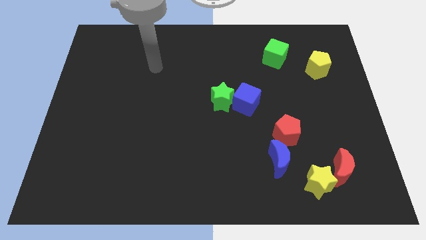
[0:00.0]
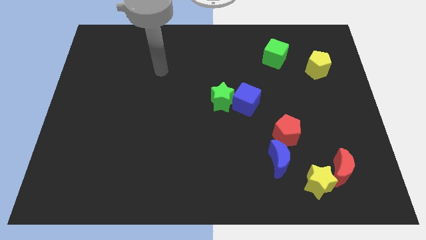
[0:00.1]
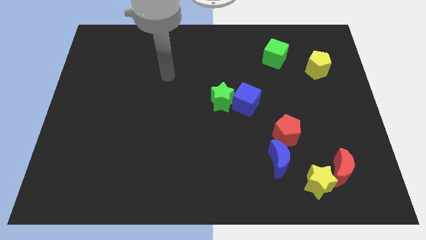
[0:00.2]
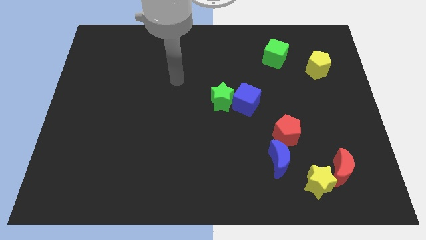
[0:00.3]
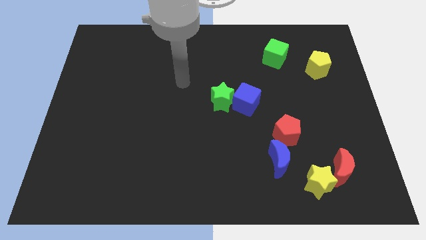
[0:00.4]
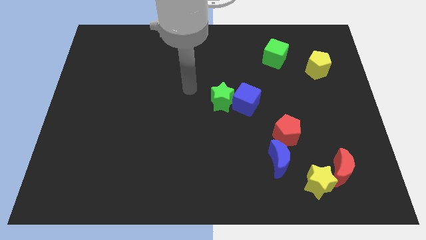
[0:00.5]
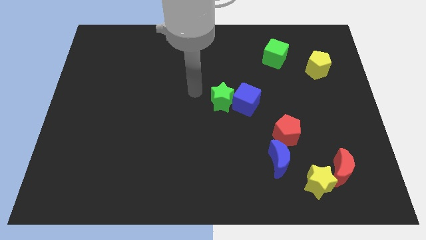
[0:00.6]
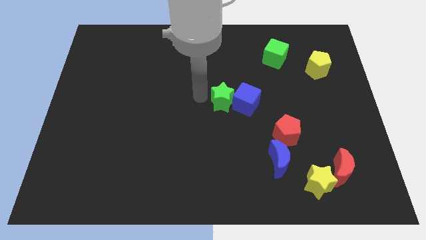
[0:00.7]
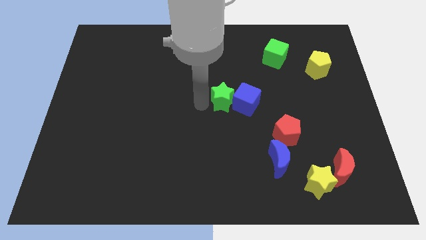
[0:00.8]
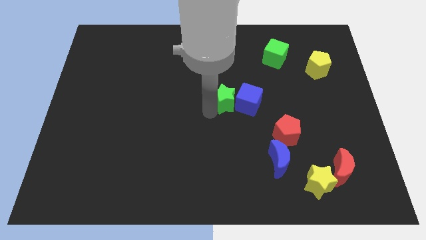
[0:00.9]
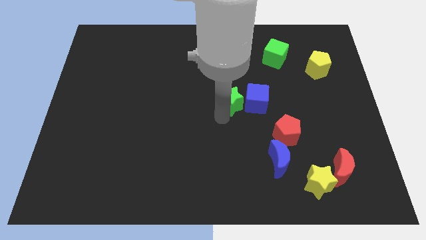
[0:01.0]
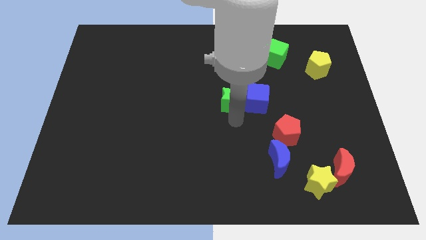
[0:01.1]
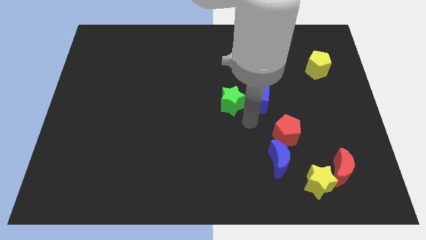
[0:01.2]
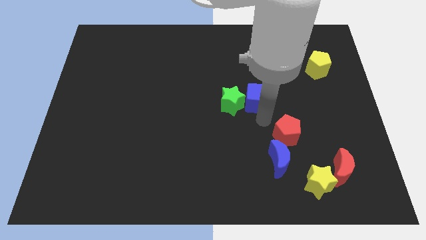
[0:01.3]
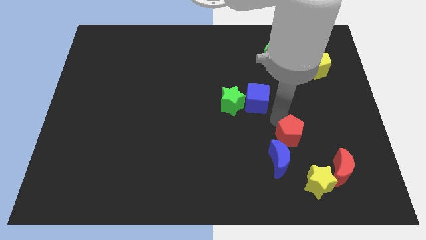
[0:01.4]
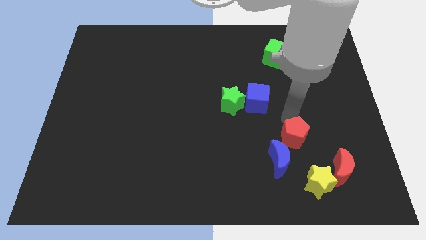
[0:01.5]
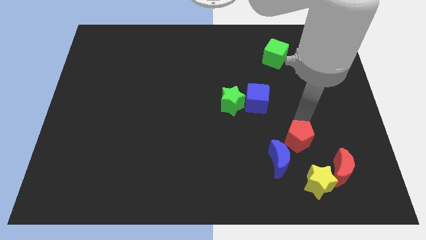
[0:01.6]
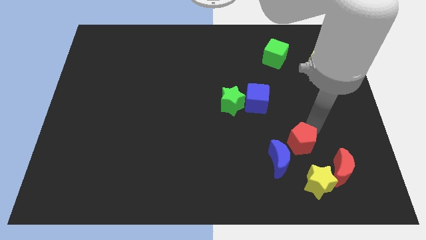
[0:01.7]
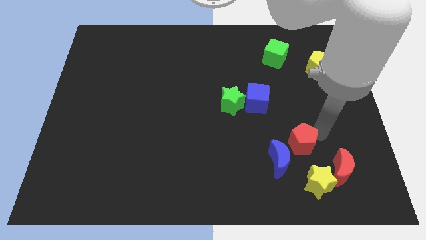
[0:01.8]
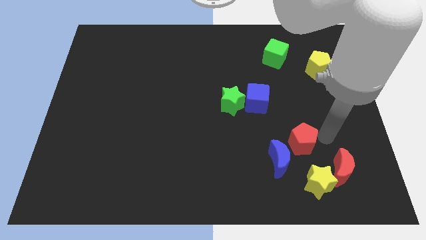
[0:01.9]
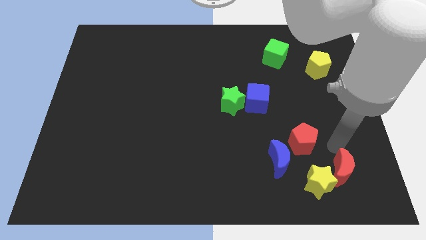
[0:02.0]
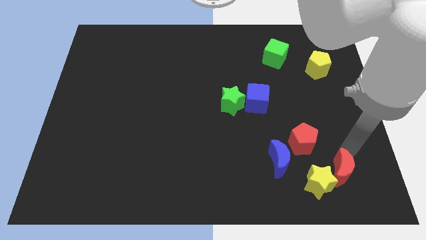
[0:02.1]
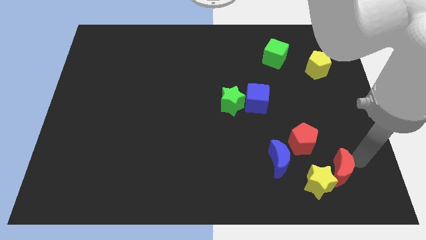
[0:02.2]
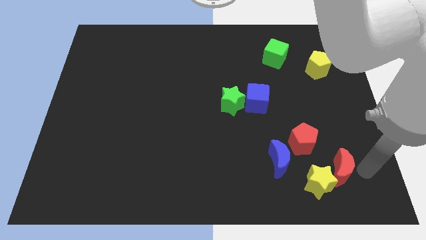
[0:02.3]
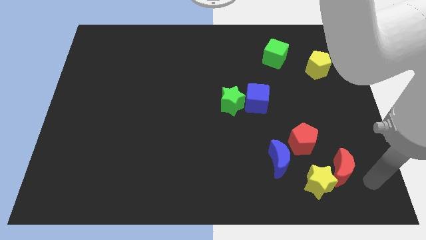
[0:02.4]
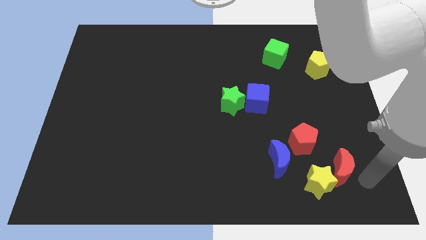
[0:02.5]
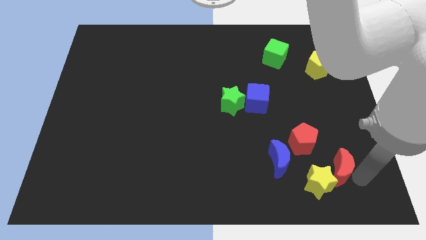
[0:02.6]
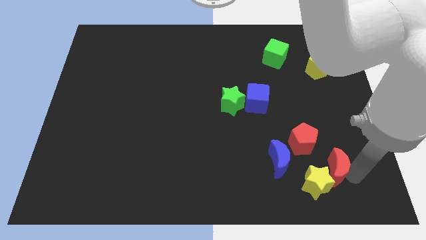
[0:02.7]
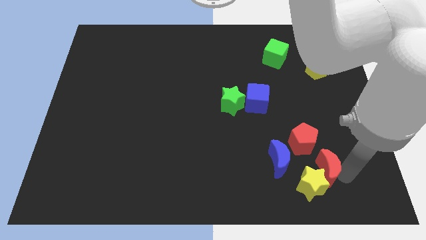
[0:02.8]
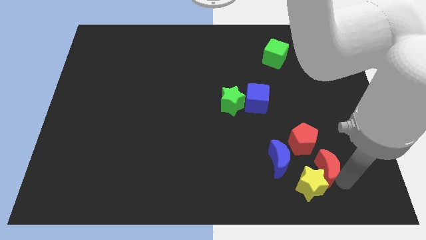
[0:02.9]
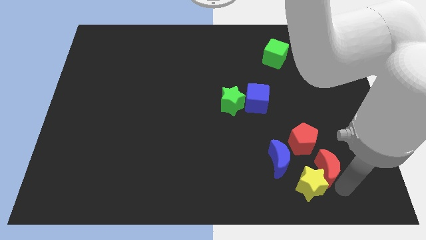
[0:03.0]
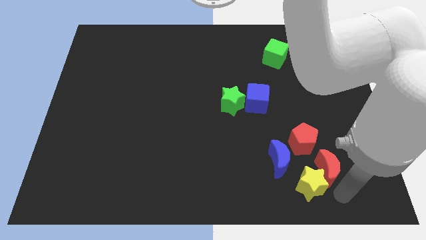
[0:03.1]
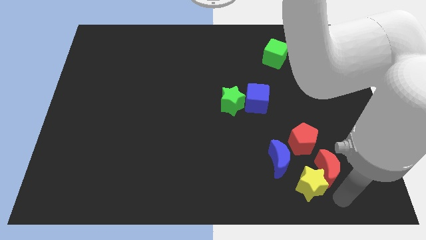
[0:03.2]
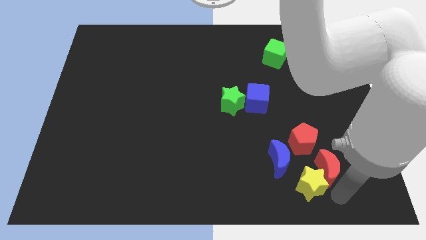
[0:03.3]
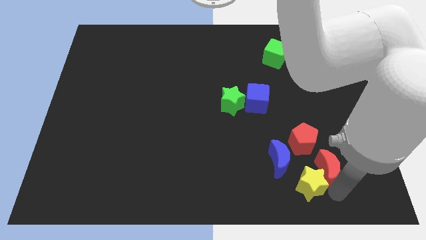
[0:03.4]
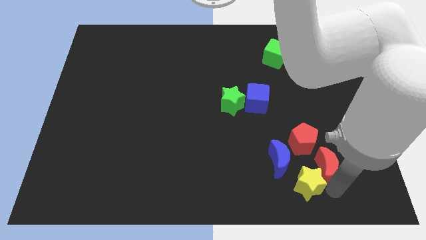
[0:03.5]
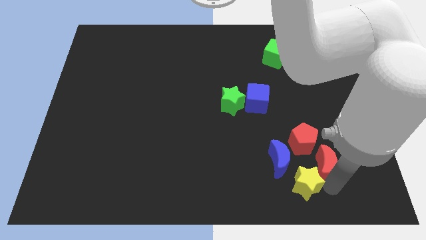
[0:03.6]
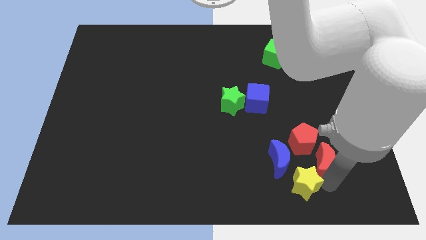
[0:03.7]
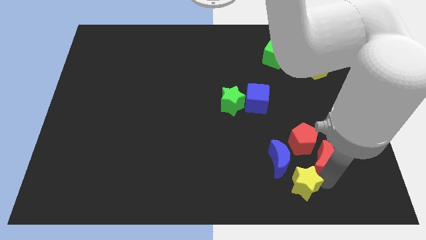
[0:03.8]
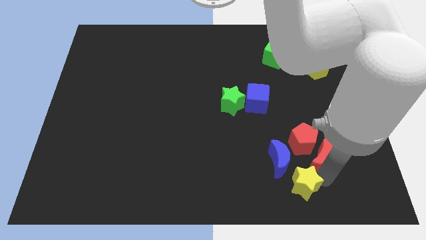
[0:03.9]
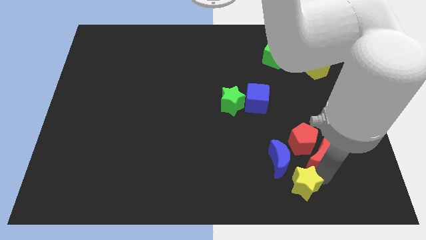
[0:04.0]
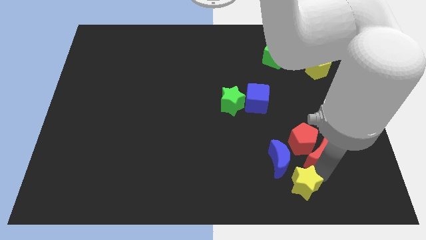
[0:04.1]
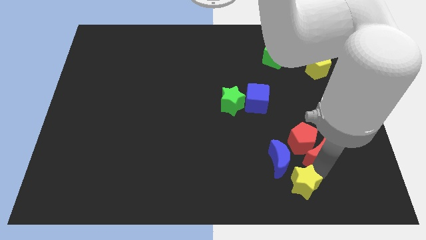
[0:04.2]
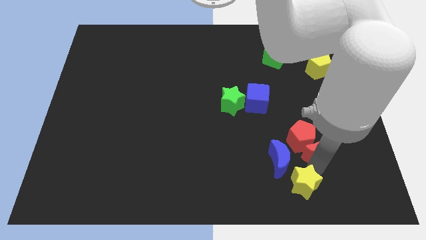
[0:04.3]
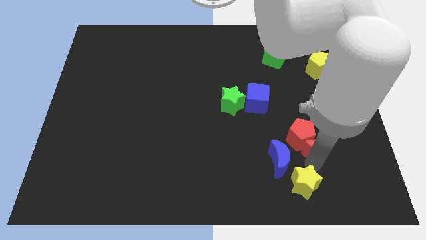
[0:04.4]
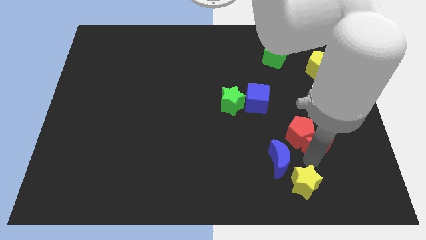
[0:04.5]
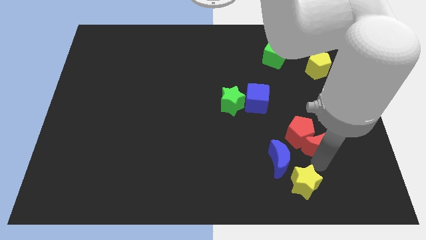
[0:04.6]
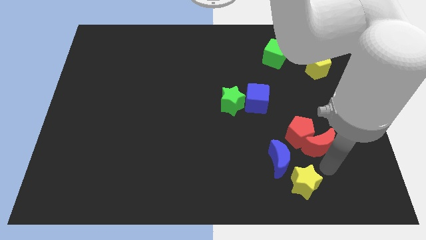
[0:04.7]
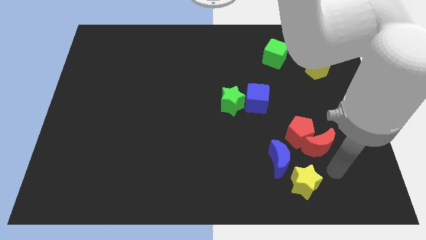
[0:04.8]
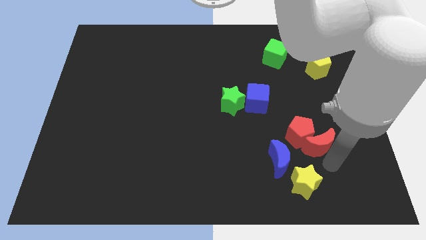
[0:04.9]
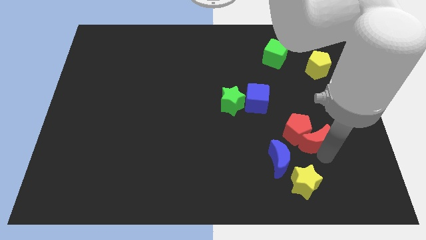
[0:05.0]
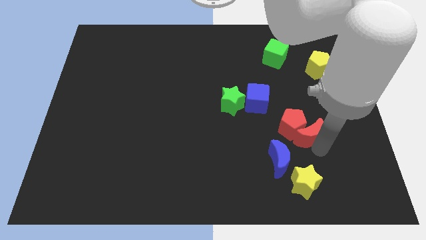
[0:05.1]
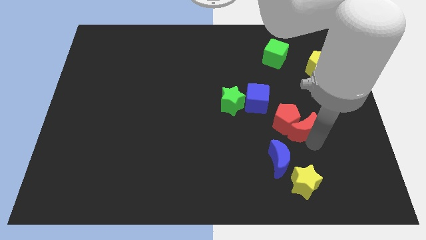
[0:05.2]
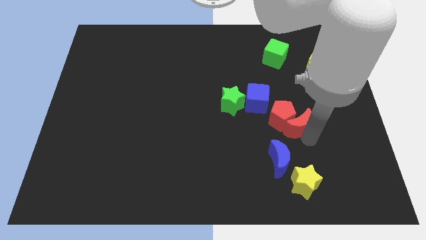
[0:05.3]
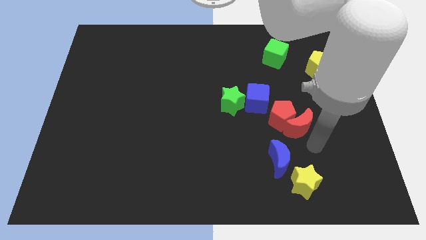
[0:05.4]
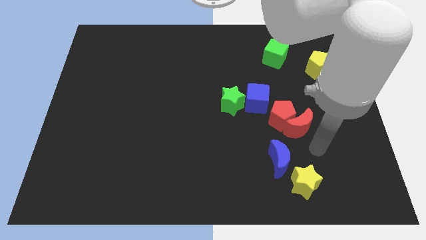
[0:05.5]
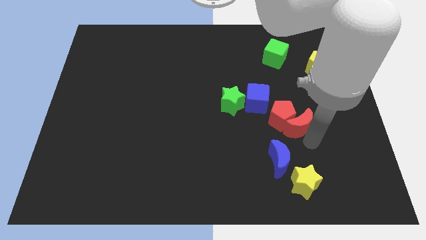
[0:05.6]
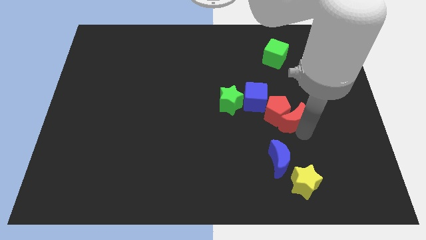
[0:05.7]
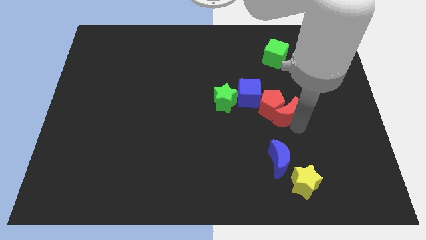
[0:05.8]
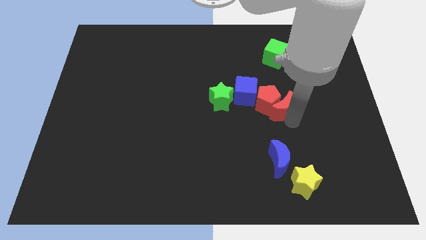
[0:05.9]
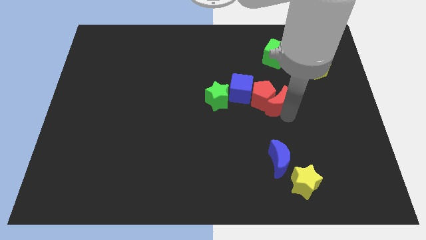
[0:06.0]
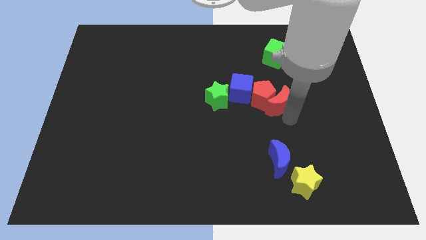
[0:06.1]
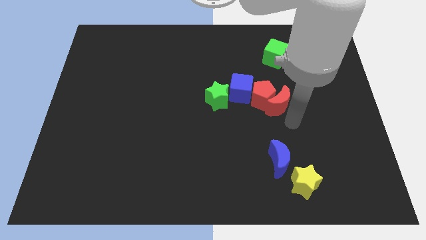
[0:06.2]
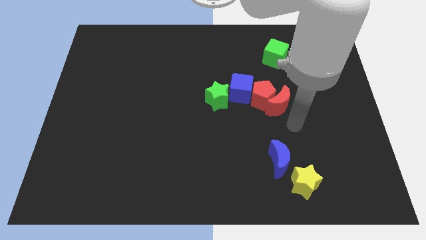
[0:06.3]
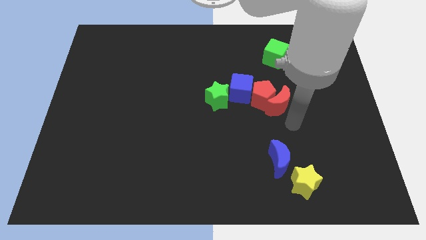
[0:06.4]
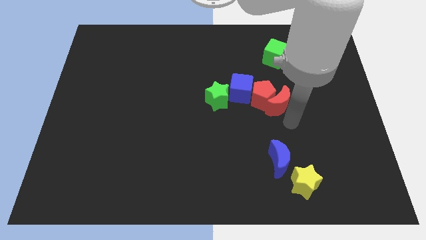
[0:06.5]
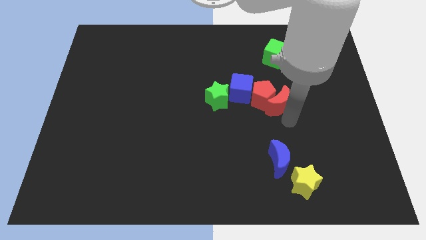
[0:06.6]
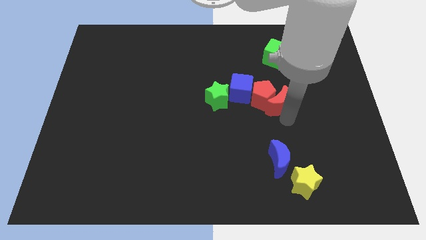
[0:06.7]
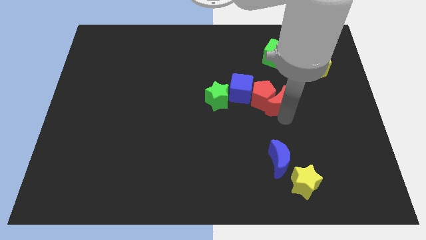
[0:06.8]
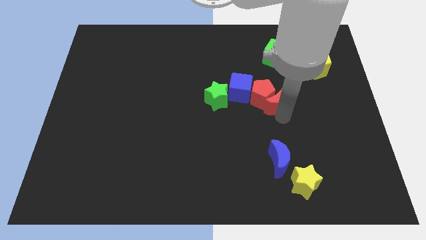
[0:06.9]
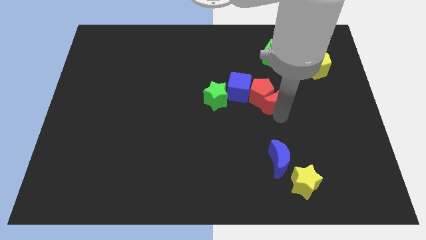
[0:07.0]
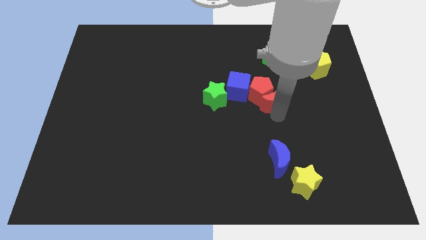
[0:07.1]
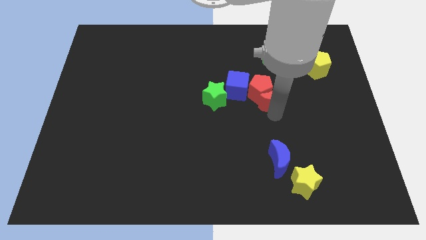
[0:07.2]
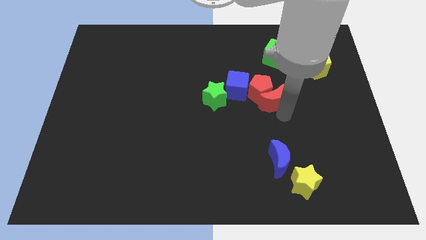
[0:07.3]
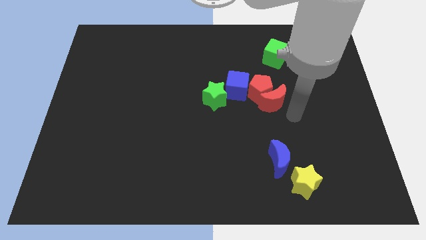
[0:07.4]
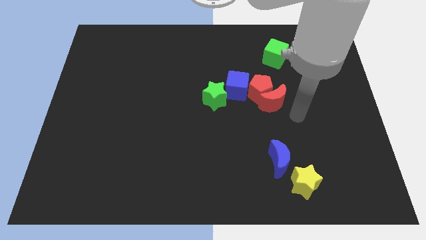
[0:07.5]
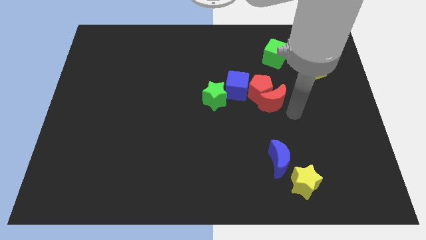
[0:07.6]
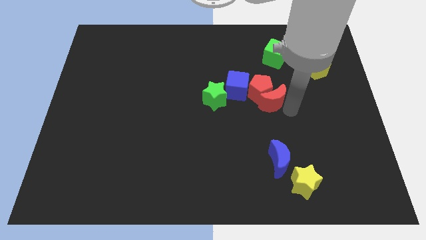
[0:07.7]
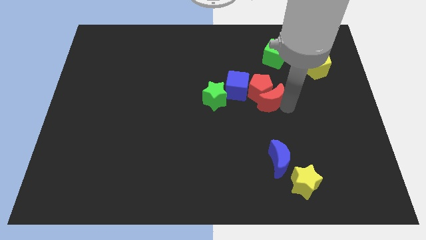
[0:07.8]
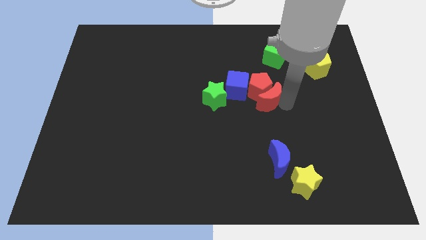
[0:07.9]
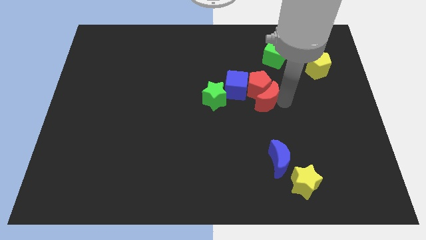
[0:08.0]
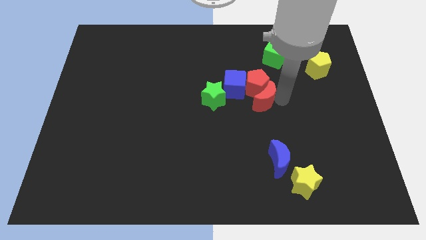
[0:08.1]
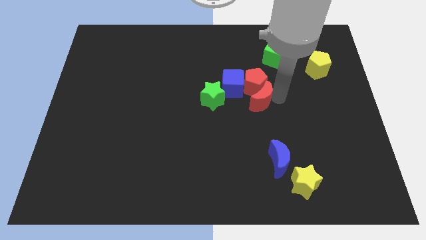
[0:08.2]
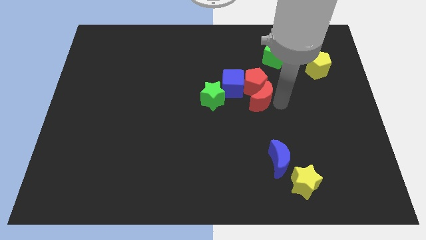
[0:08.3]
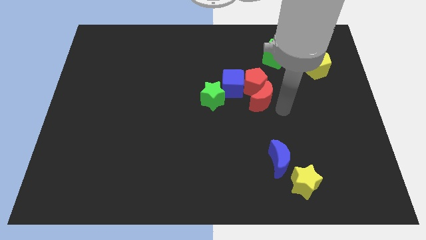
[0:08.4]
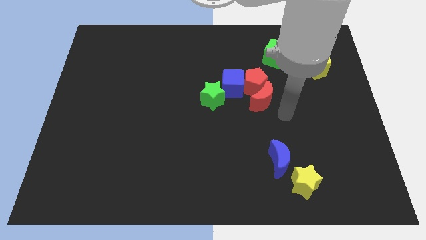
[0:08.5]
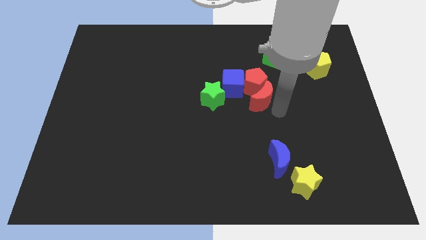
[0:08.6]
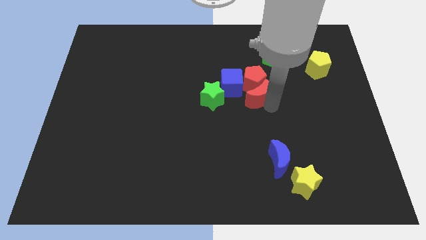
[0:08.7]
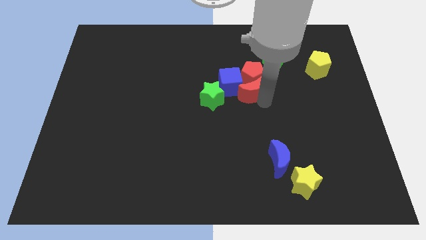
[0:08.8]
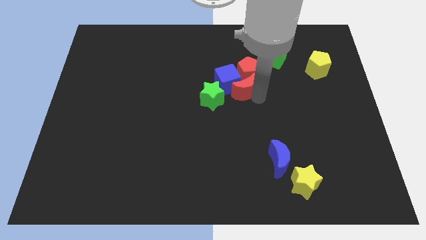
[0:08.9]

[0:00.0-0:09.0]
put the red moon to the top right of the green star
